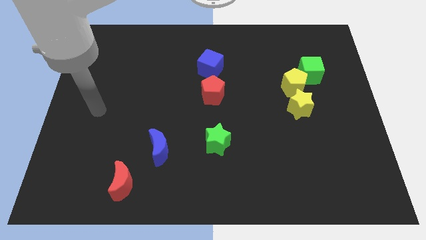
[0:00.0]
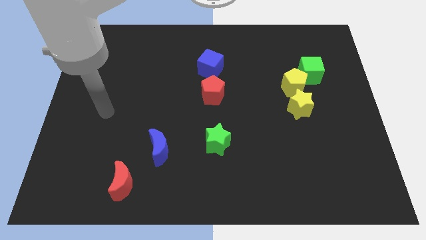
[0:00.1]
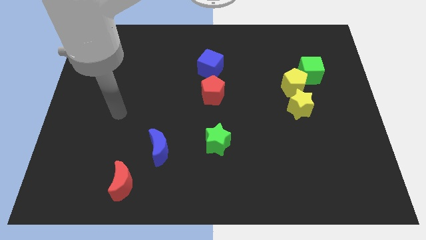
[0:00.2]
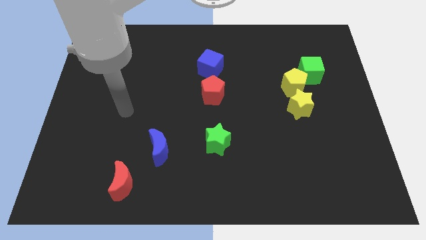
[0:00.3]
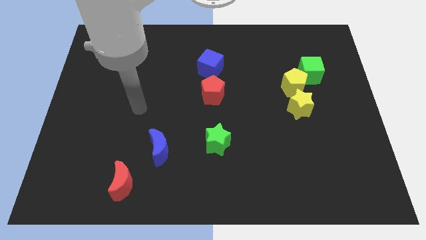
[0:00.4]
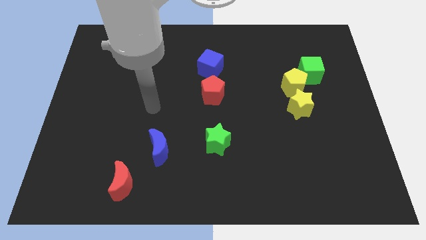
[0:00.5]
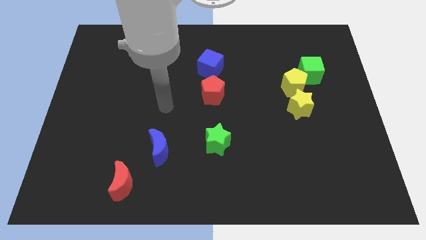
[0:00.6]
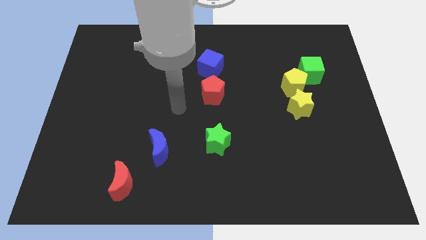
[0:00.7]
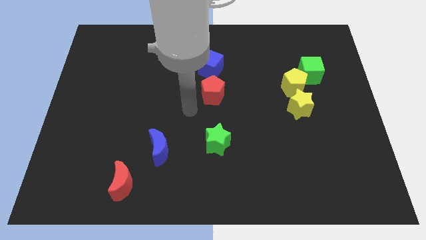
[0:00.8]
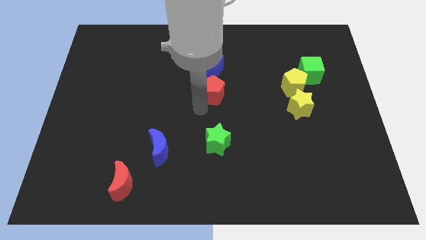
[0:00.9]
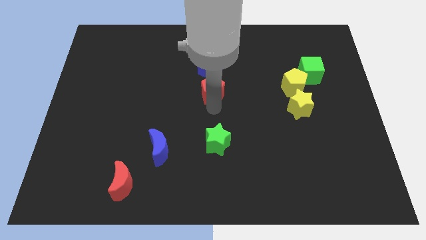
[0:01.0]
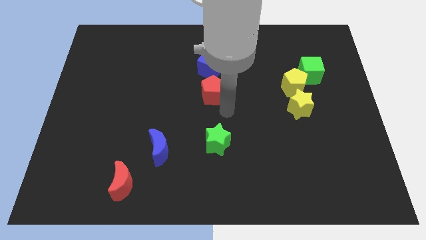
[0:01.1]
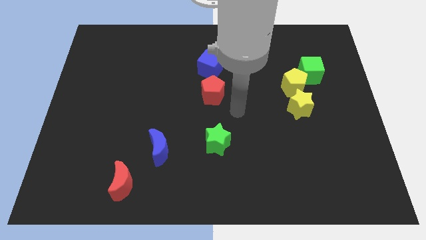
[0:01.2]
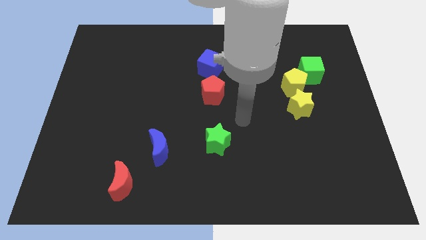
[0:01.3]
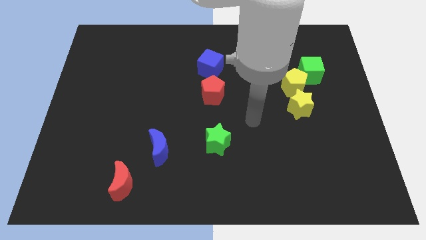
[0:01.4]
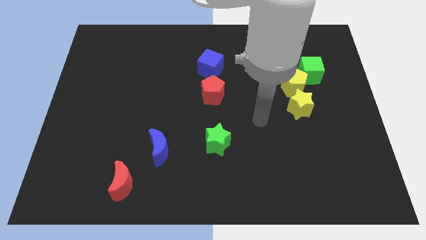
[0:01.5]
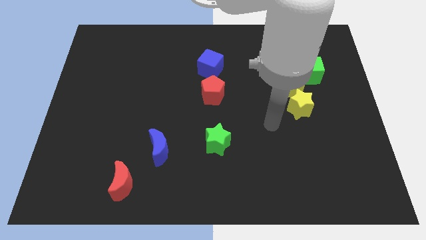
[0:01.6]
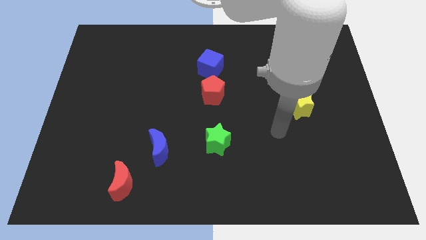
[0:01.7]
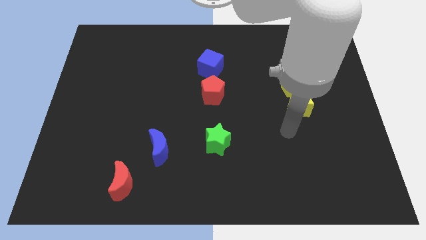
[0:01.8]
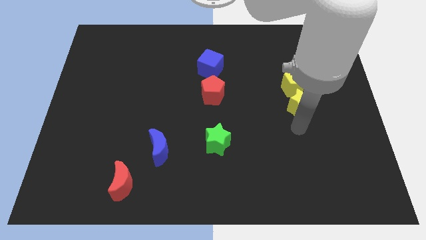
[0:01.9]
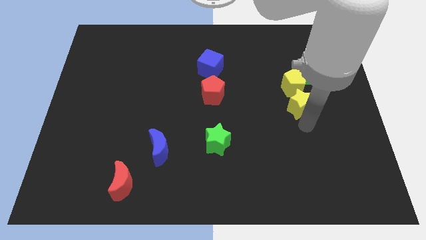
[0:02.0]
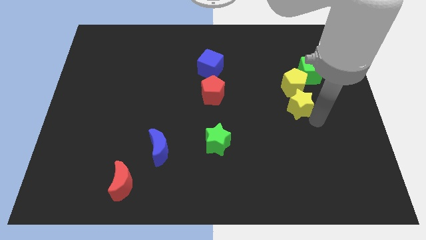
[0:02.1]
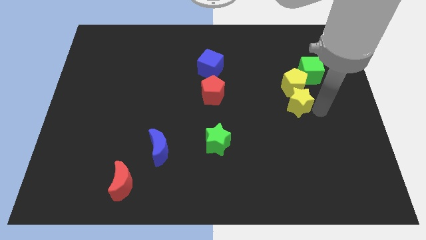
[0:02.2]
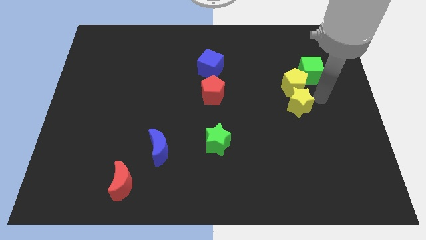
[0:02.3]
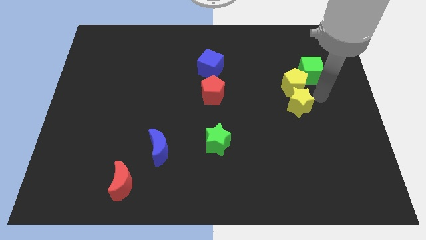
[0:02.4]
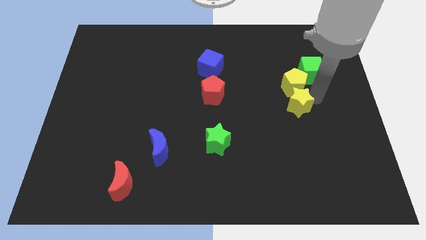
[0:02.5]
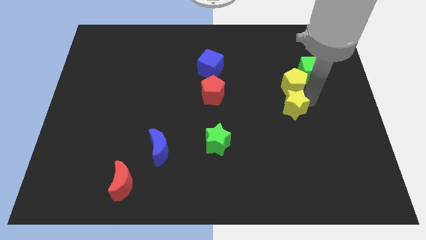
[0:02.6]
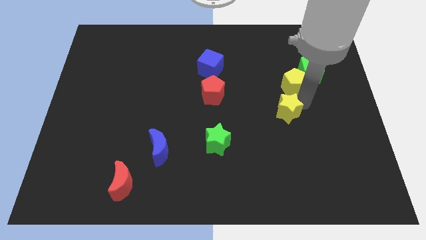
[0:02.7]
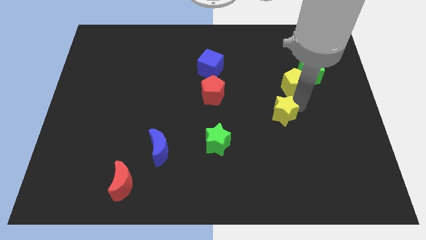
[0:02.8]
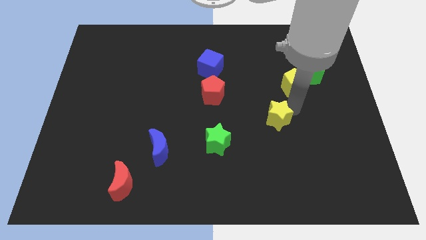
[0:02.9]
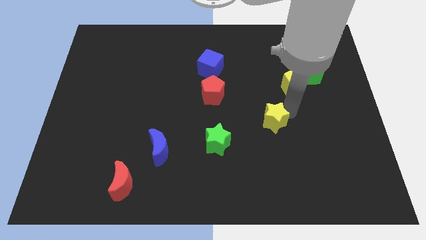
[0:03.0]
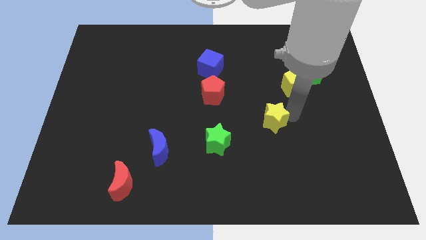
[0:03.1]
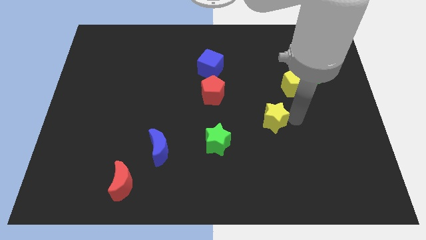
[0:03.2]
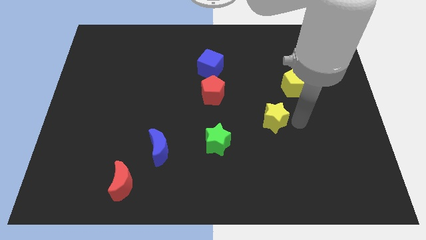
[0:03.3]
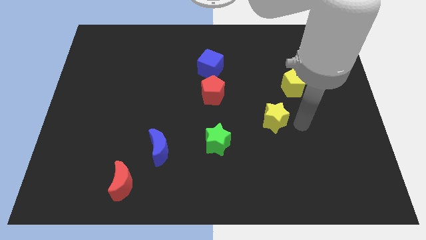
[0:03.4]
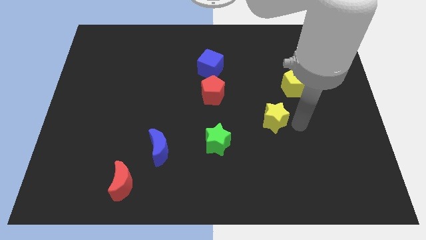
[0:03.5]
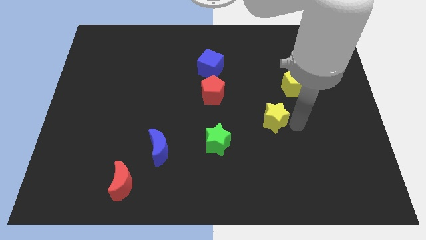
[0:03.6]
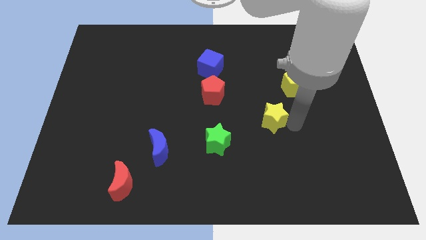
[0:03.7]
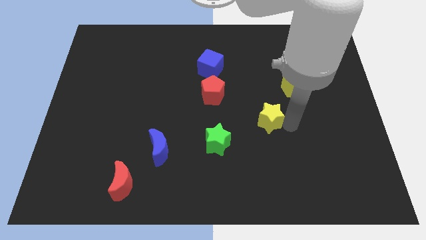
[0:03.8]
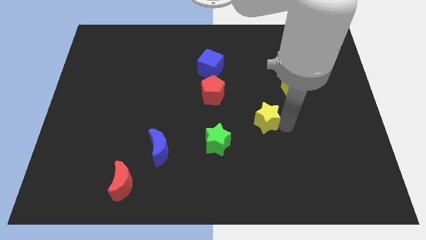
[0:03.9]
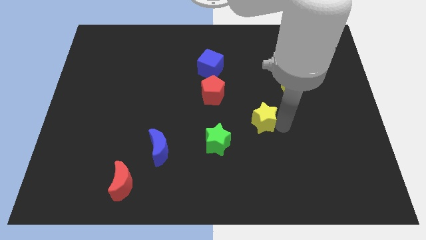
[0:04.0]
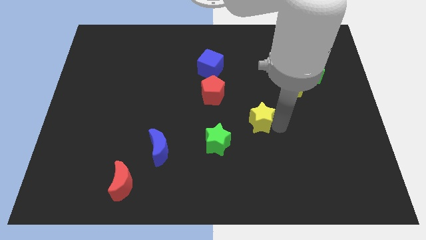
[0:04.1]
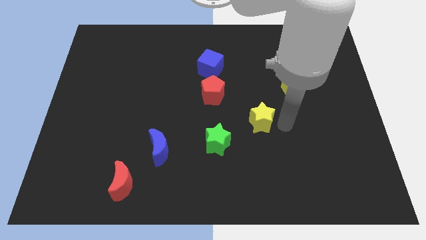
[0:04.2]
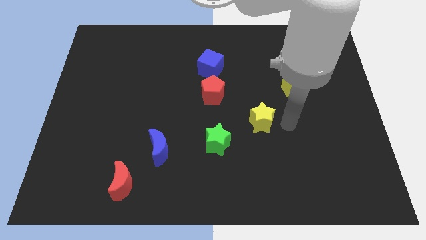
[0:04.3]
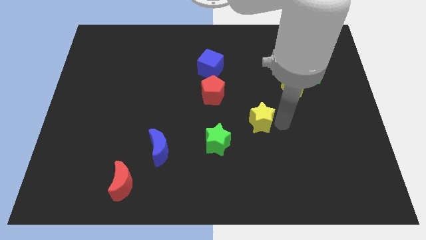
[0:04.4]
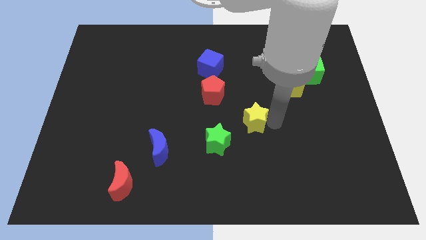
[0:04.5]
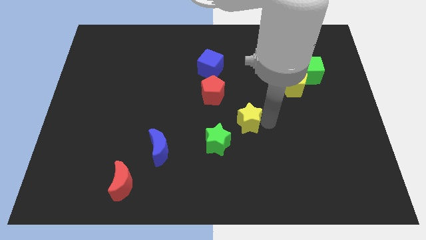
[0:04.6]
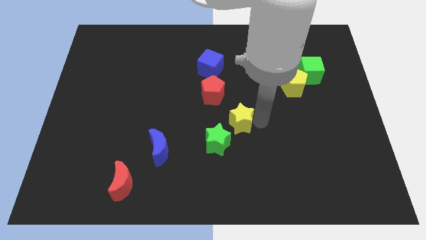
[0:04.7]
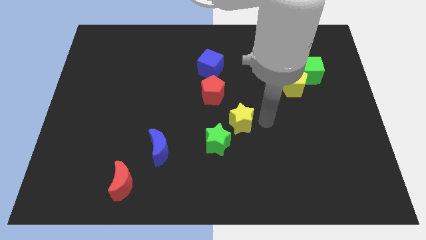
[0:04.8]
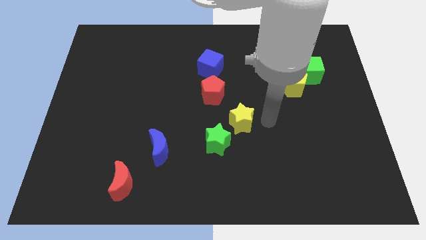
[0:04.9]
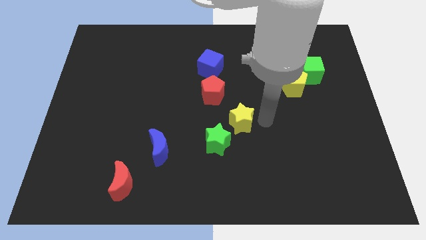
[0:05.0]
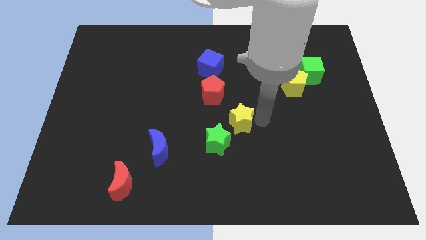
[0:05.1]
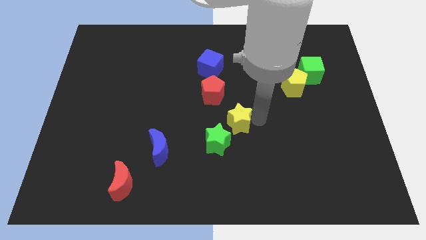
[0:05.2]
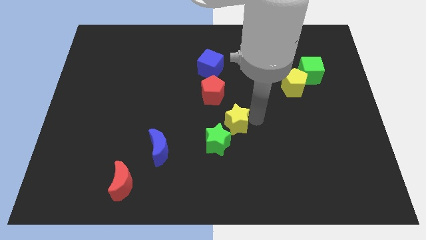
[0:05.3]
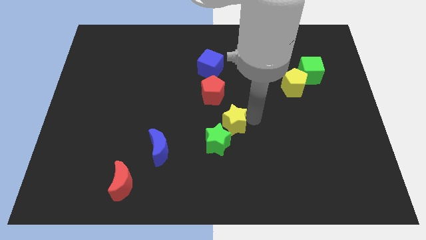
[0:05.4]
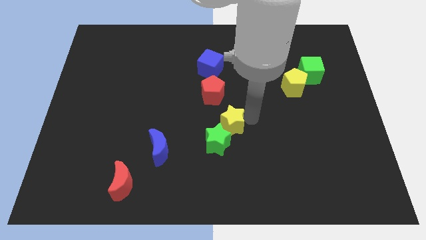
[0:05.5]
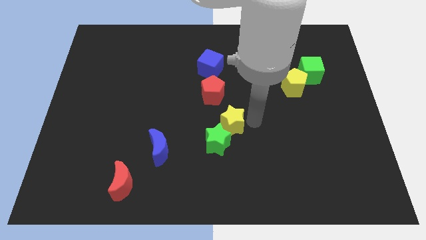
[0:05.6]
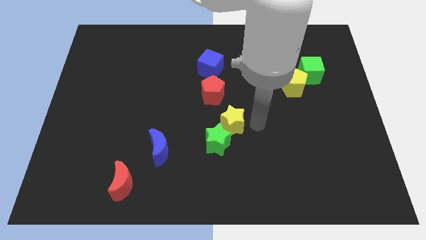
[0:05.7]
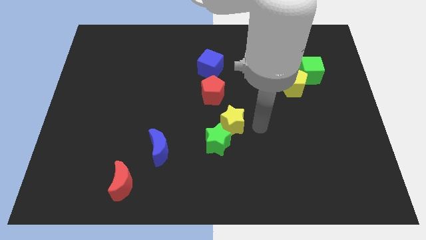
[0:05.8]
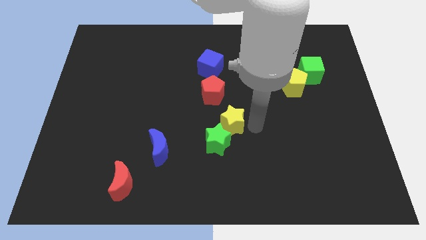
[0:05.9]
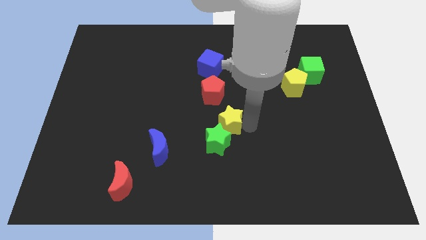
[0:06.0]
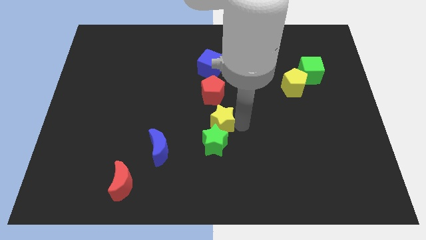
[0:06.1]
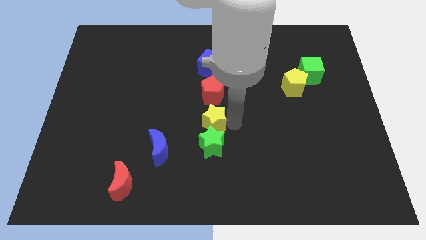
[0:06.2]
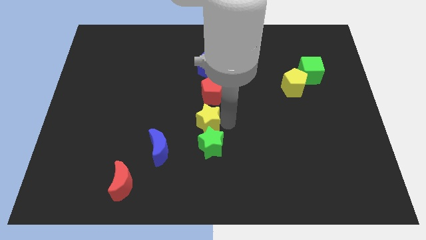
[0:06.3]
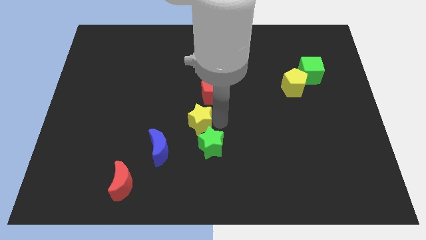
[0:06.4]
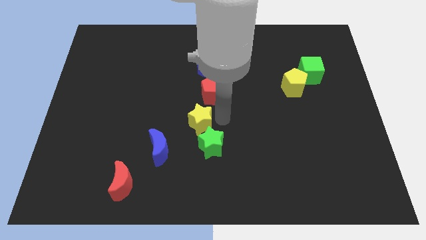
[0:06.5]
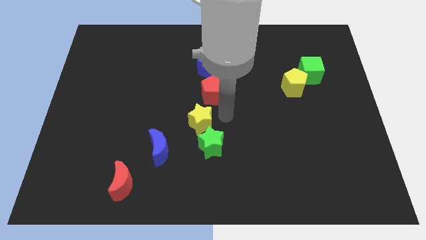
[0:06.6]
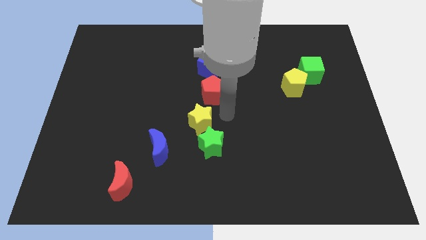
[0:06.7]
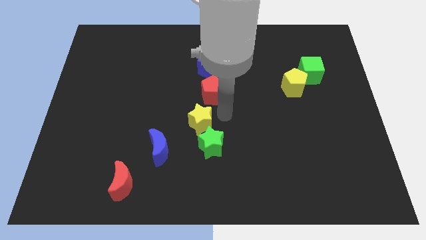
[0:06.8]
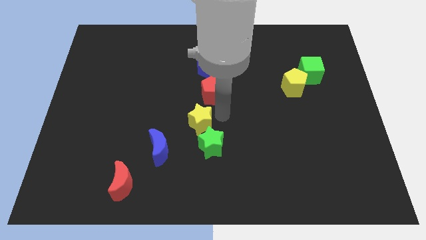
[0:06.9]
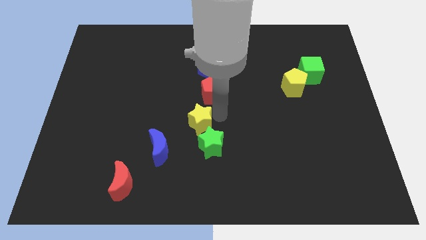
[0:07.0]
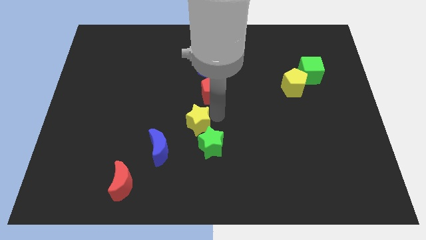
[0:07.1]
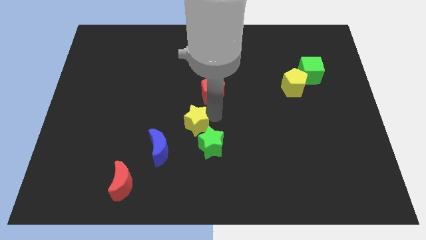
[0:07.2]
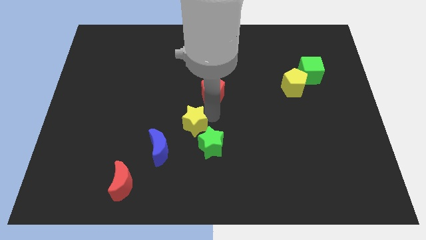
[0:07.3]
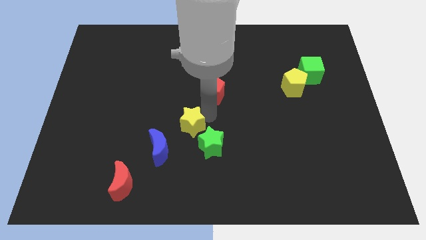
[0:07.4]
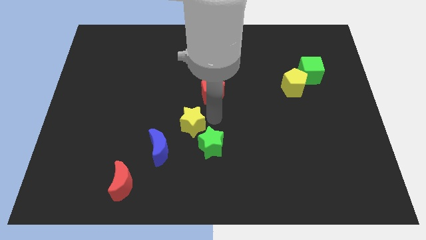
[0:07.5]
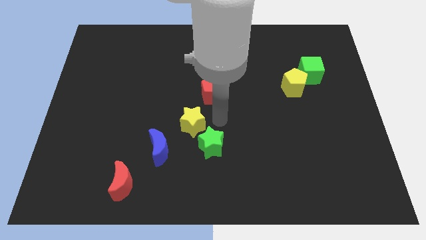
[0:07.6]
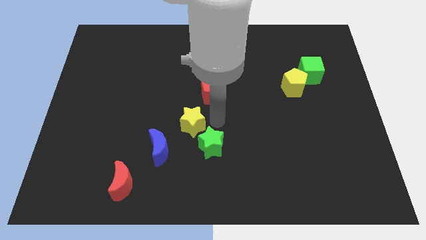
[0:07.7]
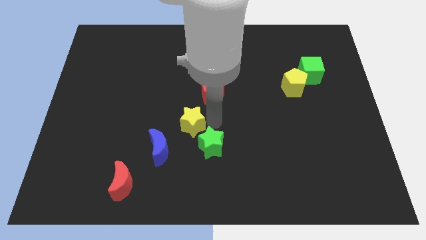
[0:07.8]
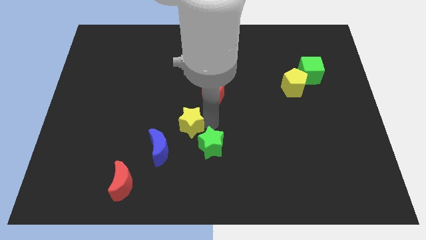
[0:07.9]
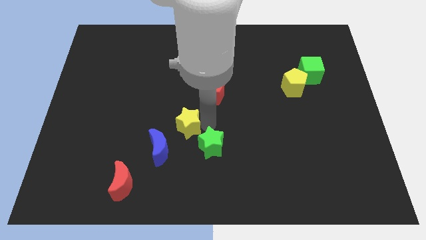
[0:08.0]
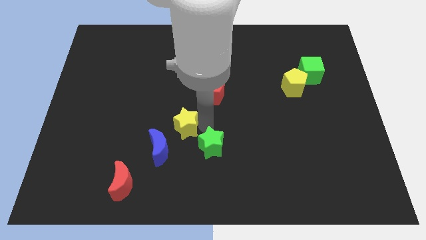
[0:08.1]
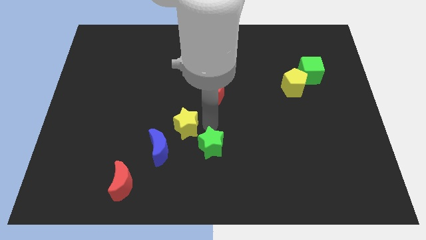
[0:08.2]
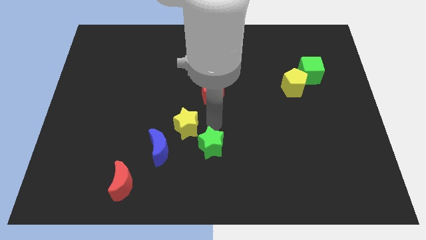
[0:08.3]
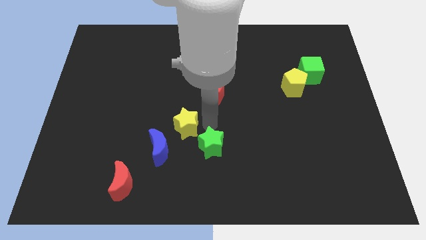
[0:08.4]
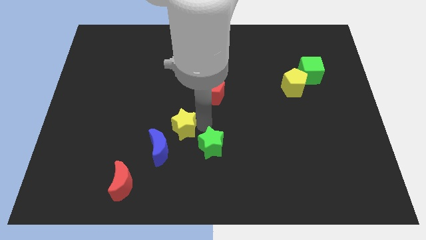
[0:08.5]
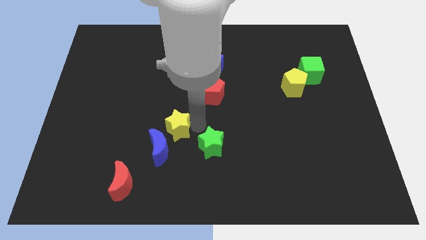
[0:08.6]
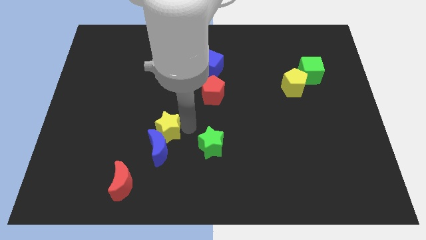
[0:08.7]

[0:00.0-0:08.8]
put the yellow star to the top left side of the blue moon
